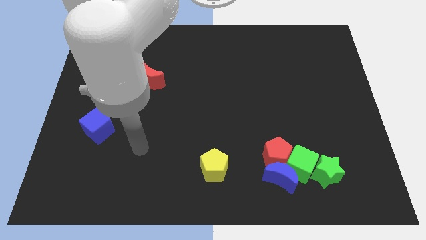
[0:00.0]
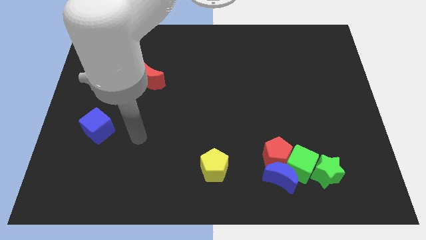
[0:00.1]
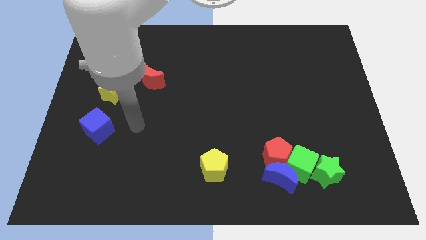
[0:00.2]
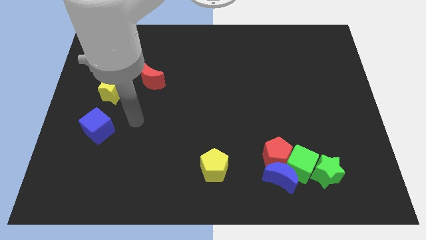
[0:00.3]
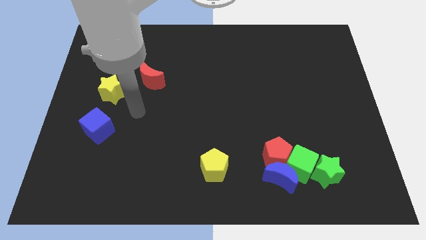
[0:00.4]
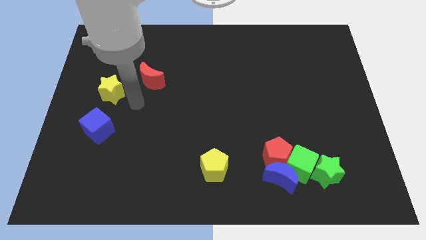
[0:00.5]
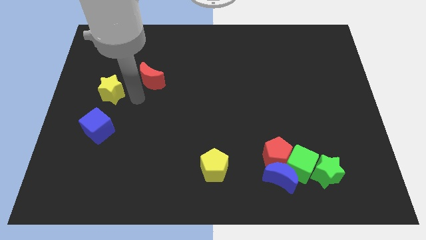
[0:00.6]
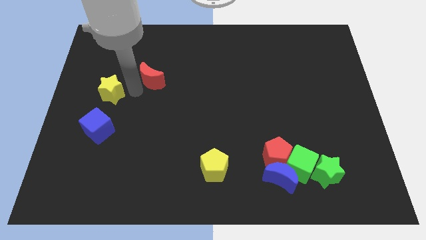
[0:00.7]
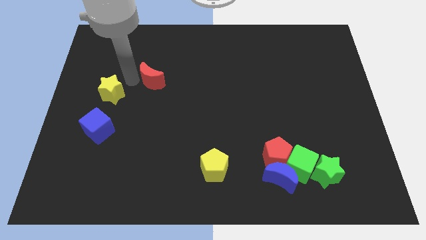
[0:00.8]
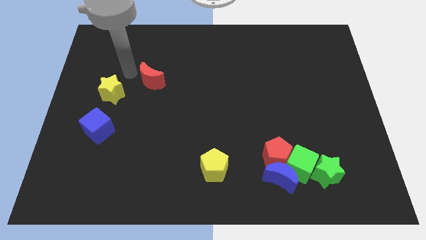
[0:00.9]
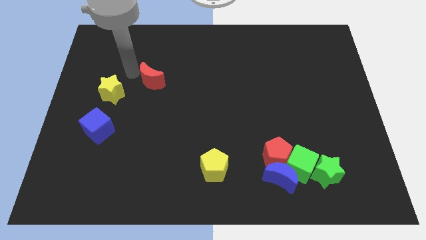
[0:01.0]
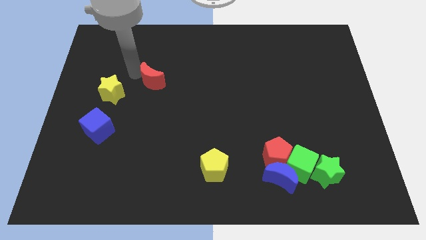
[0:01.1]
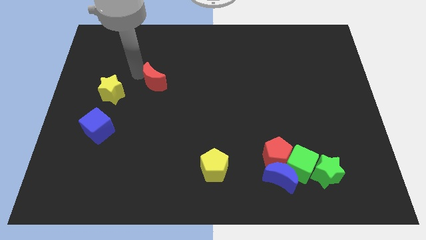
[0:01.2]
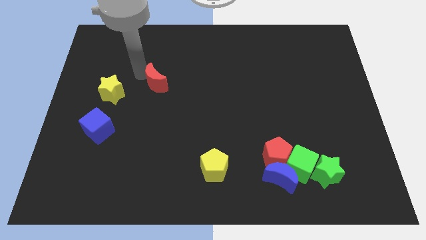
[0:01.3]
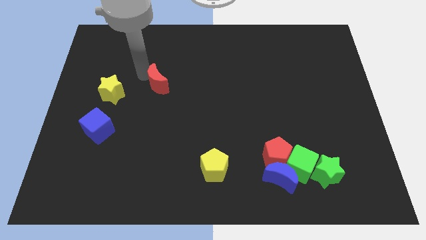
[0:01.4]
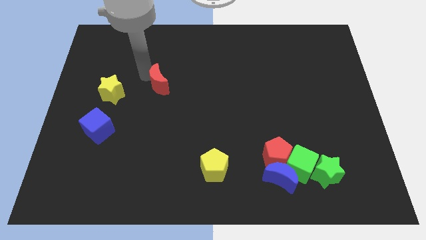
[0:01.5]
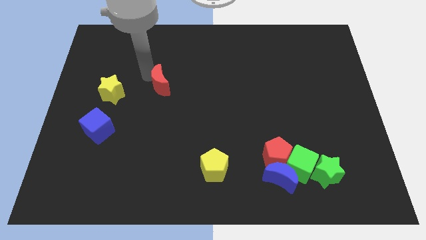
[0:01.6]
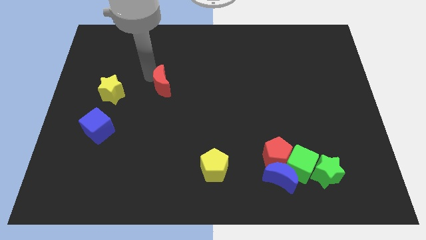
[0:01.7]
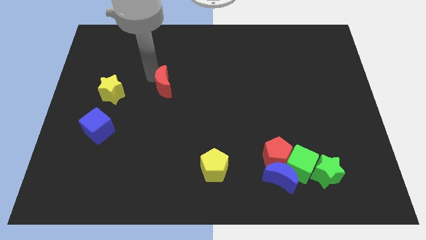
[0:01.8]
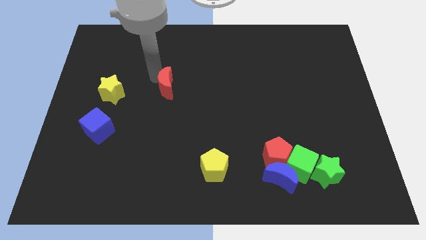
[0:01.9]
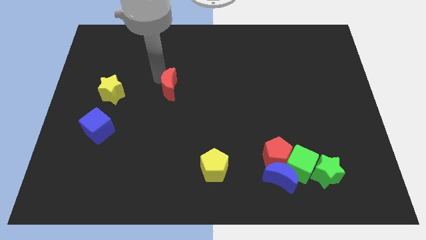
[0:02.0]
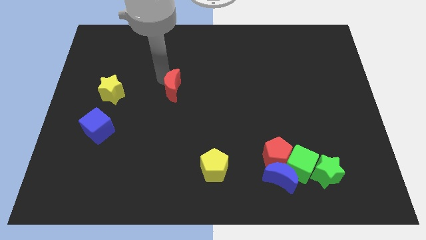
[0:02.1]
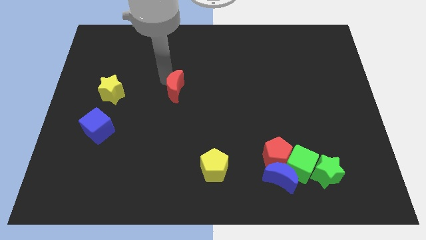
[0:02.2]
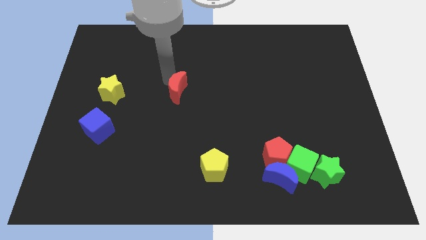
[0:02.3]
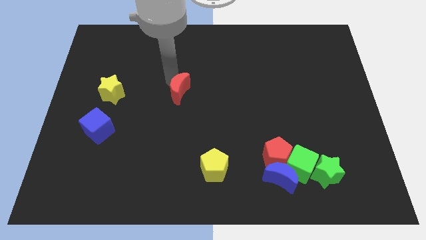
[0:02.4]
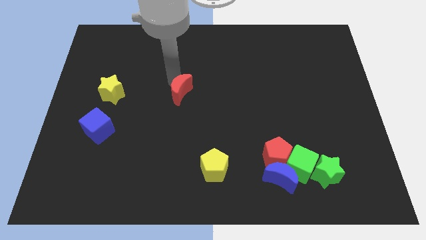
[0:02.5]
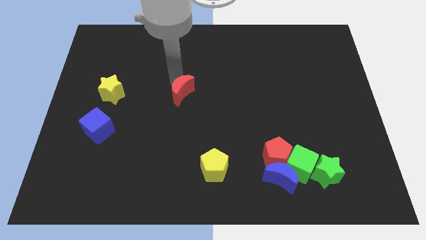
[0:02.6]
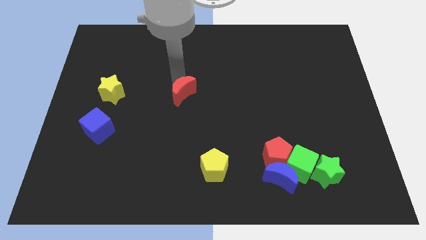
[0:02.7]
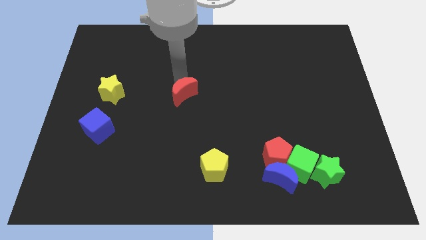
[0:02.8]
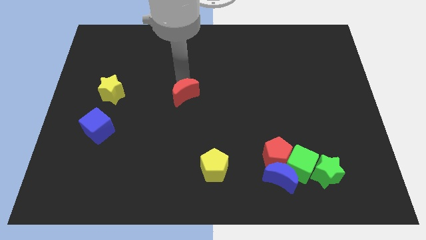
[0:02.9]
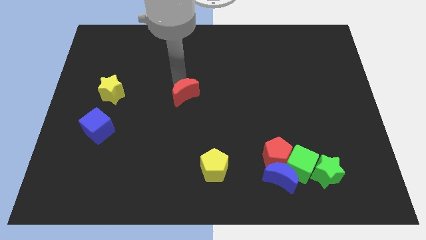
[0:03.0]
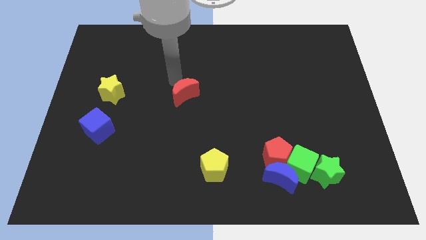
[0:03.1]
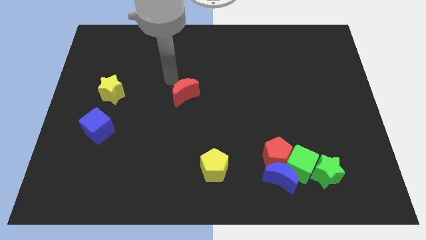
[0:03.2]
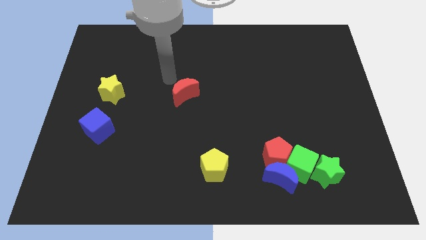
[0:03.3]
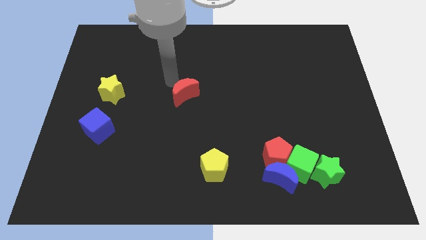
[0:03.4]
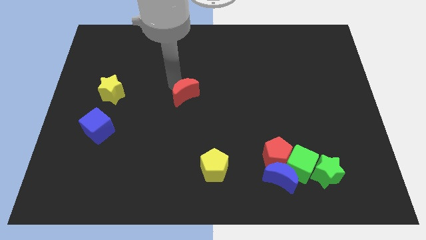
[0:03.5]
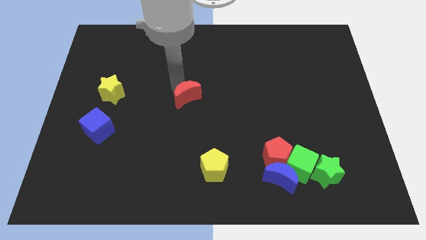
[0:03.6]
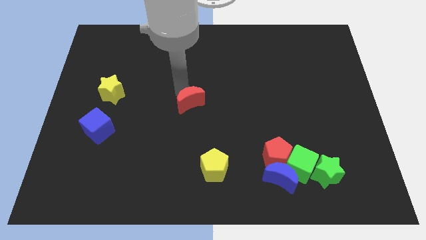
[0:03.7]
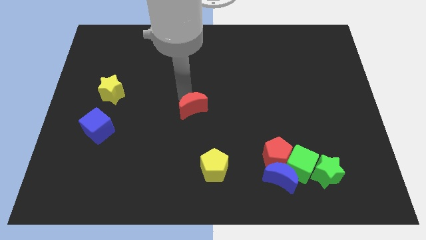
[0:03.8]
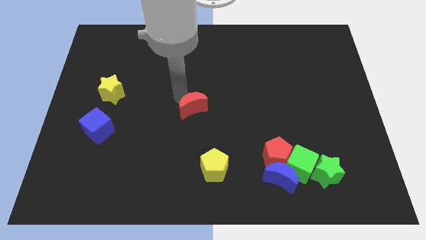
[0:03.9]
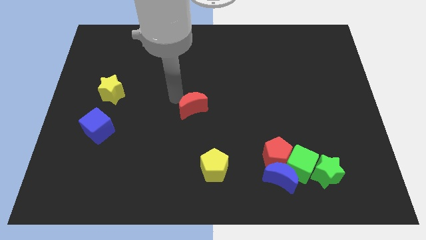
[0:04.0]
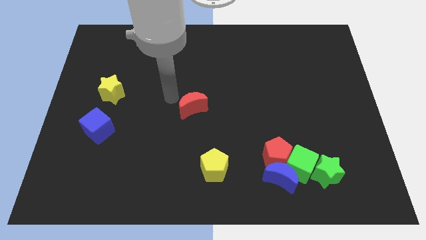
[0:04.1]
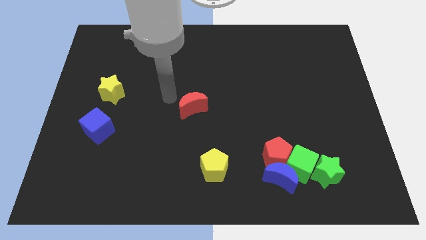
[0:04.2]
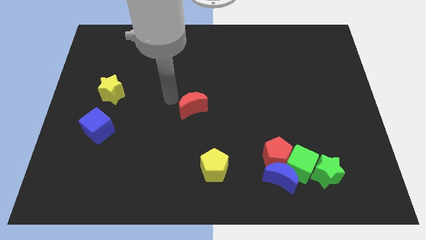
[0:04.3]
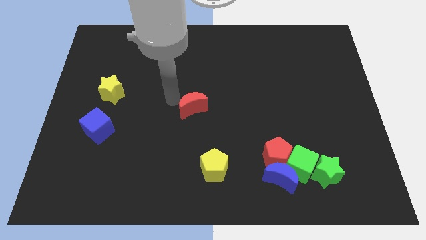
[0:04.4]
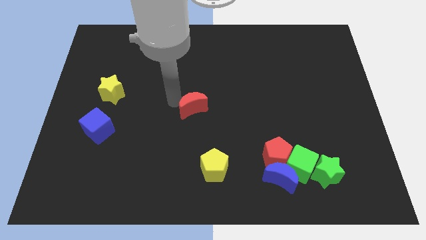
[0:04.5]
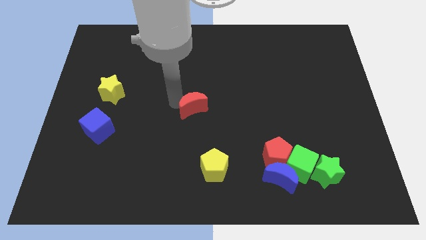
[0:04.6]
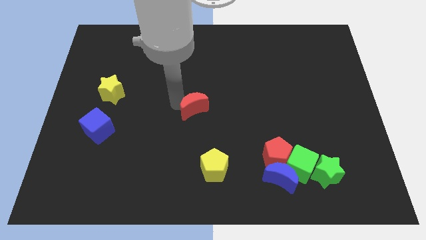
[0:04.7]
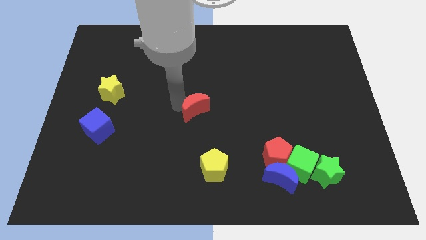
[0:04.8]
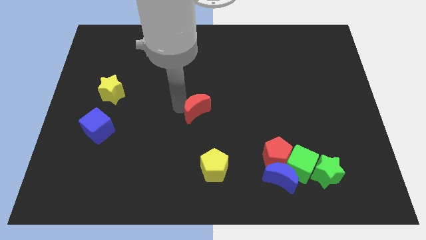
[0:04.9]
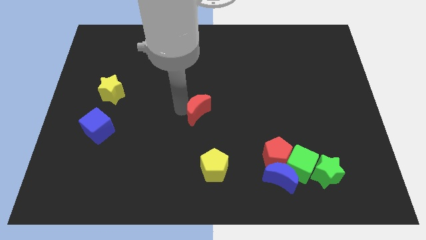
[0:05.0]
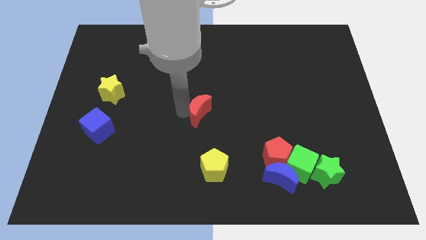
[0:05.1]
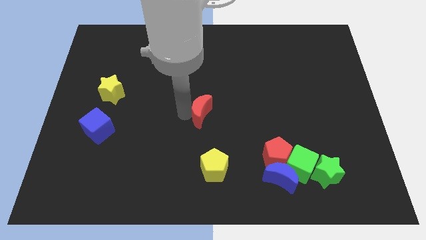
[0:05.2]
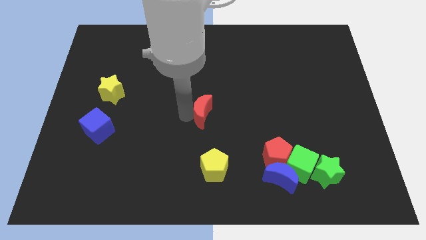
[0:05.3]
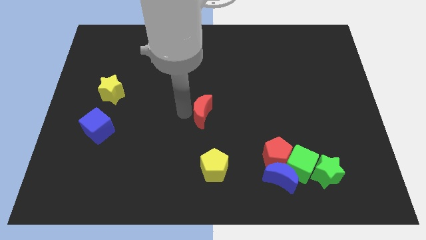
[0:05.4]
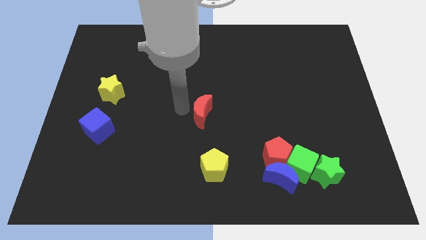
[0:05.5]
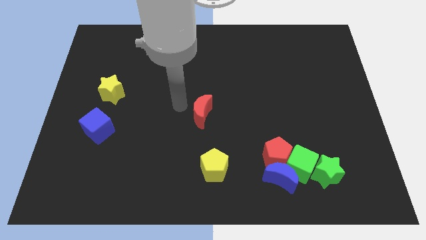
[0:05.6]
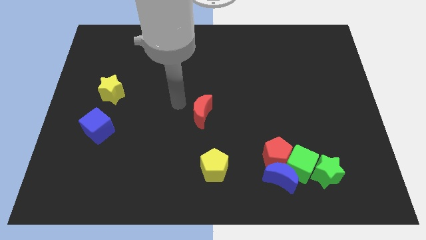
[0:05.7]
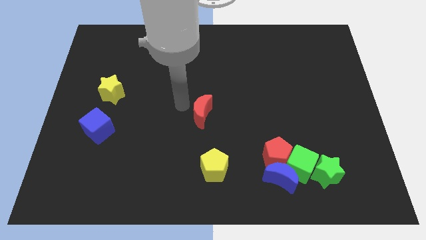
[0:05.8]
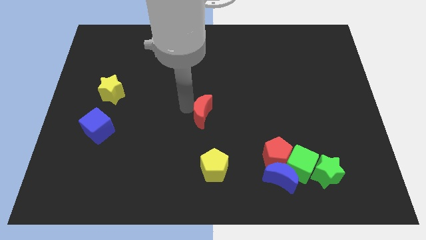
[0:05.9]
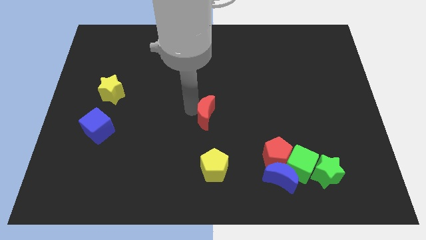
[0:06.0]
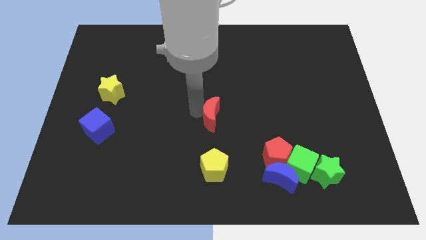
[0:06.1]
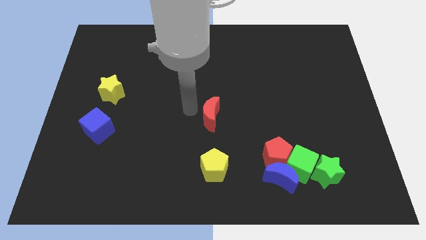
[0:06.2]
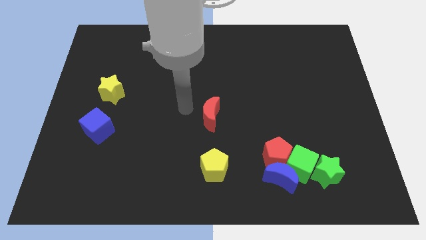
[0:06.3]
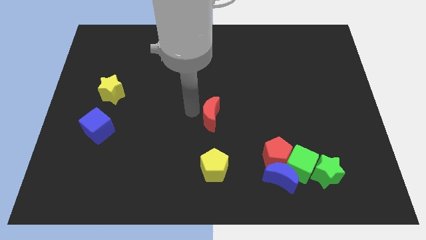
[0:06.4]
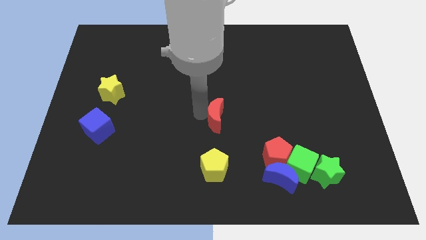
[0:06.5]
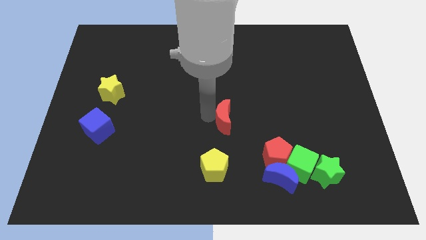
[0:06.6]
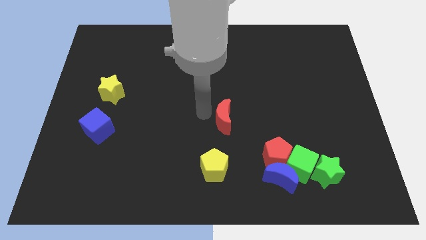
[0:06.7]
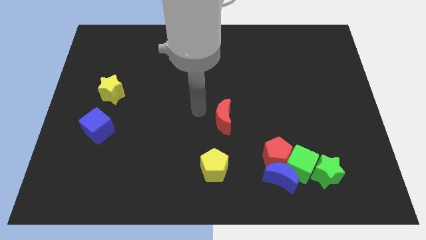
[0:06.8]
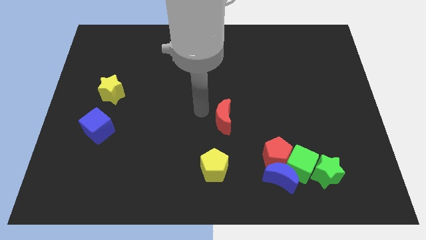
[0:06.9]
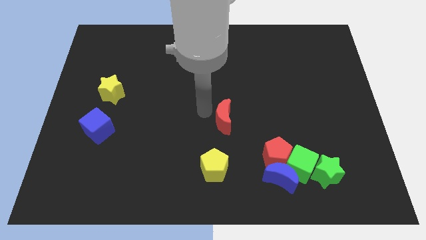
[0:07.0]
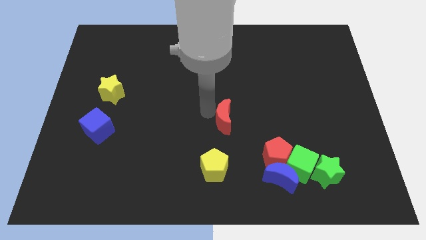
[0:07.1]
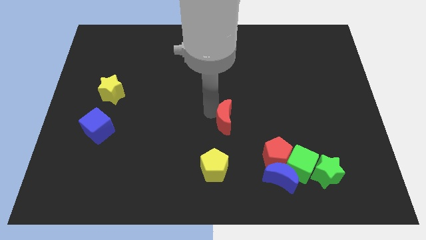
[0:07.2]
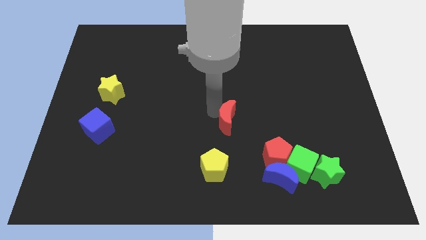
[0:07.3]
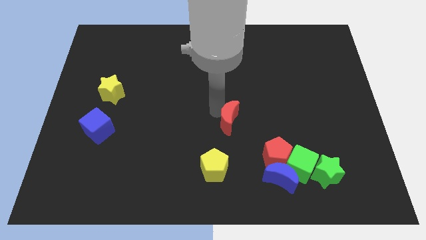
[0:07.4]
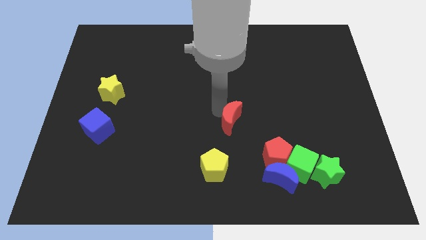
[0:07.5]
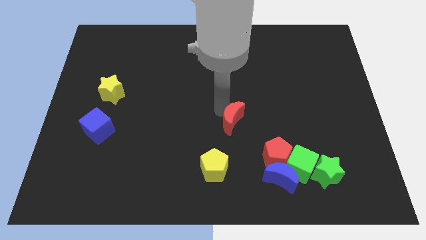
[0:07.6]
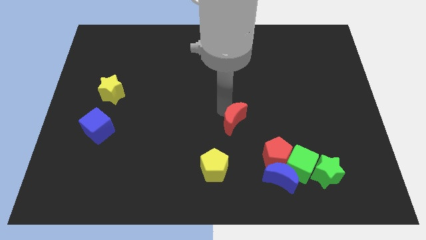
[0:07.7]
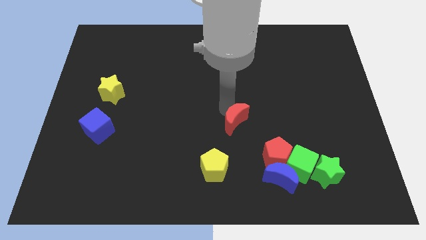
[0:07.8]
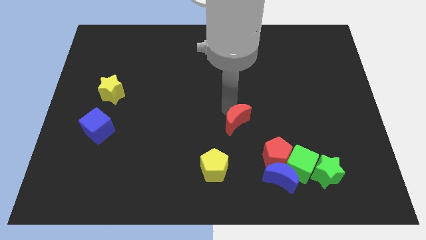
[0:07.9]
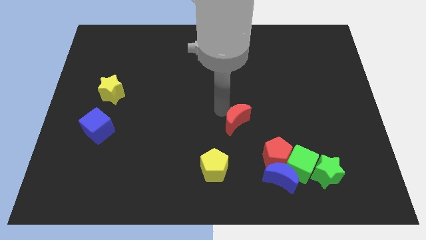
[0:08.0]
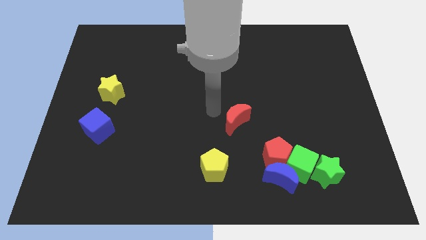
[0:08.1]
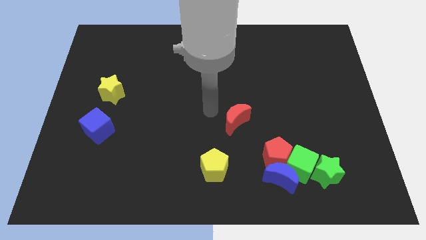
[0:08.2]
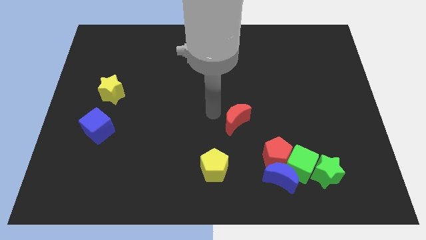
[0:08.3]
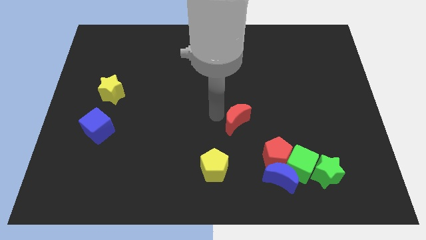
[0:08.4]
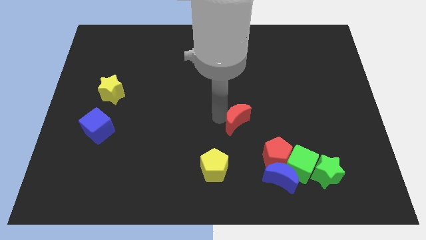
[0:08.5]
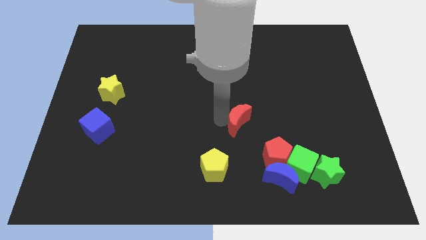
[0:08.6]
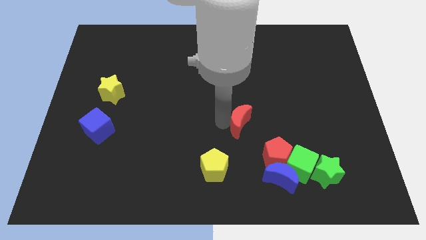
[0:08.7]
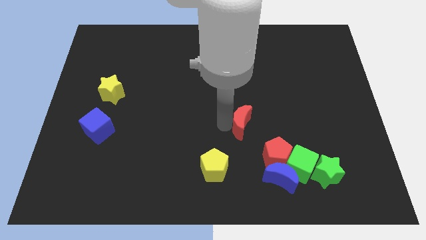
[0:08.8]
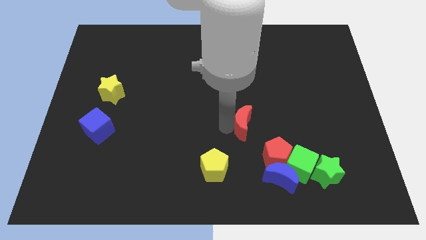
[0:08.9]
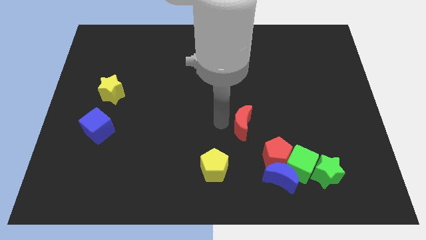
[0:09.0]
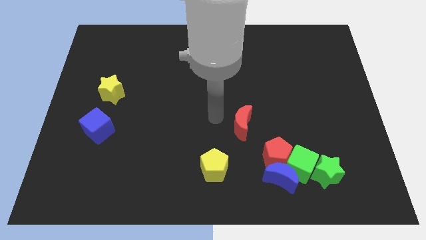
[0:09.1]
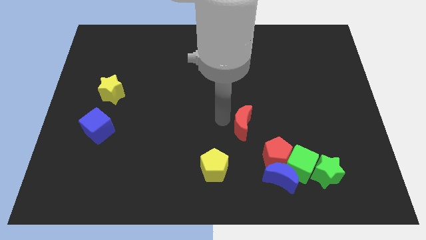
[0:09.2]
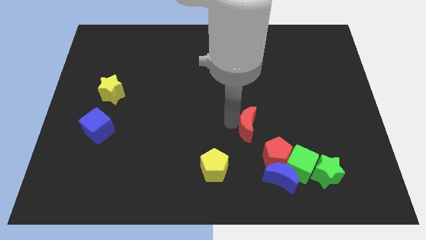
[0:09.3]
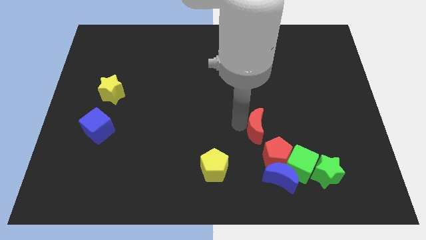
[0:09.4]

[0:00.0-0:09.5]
move the red moon to the top side of the blue moon
